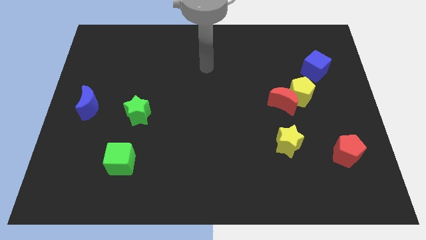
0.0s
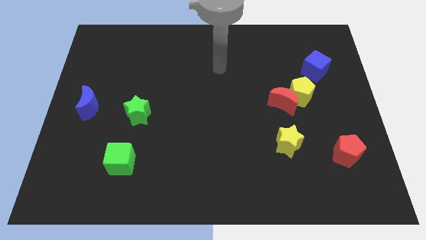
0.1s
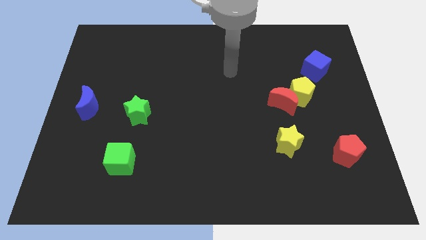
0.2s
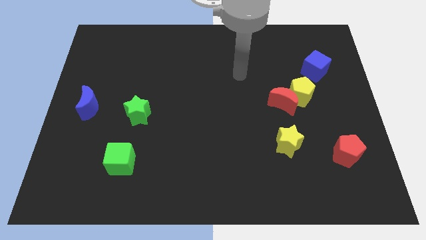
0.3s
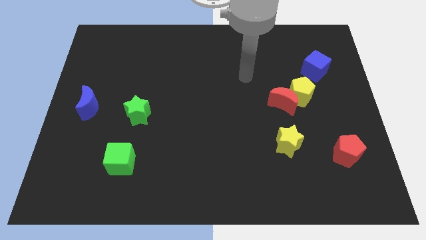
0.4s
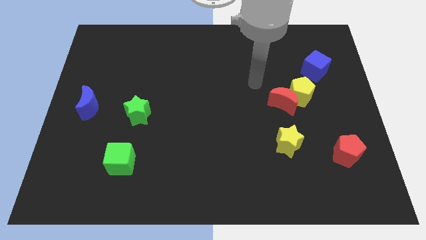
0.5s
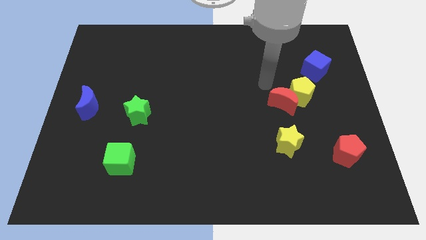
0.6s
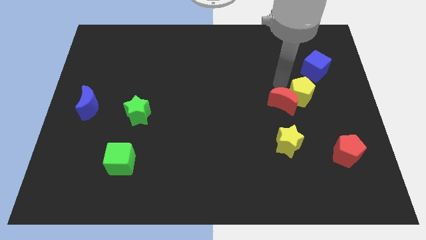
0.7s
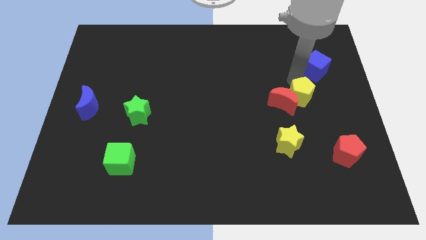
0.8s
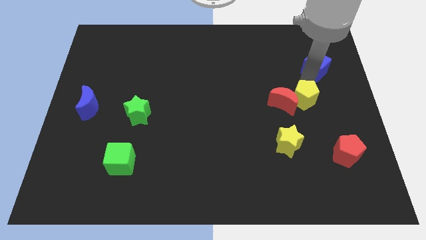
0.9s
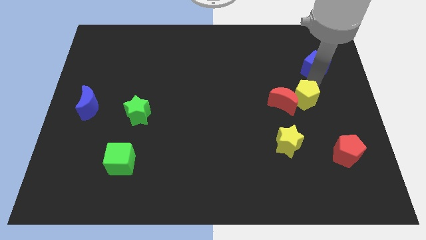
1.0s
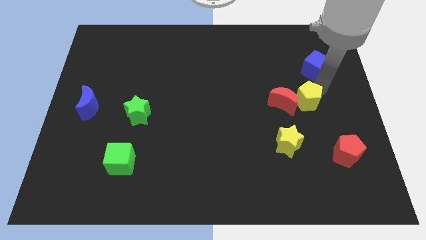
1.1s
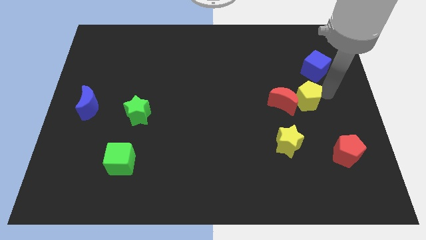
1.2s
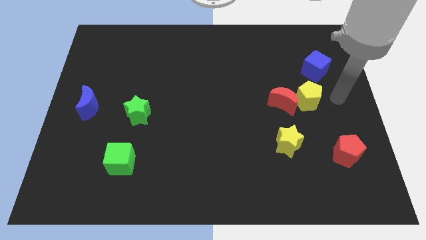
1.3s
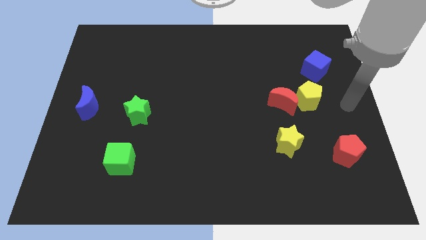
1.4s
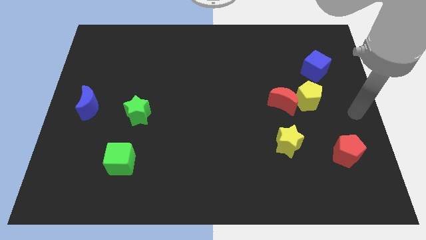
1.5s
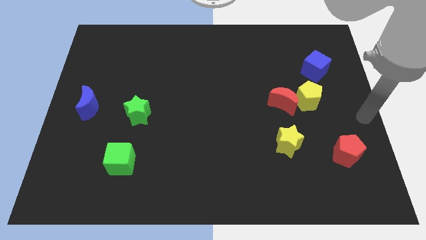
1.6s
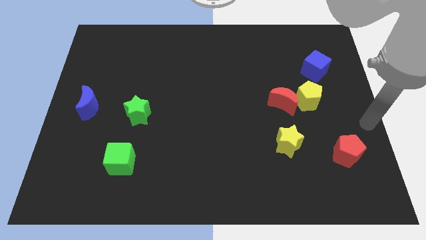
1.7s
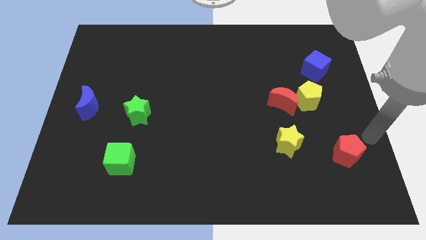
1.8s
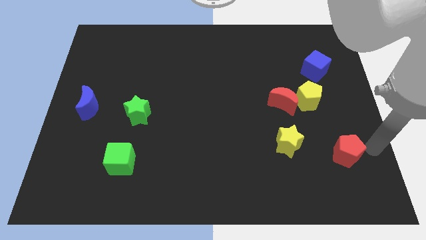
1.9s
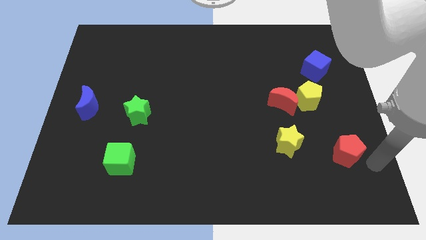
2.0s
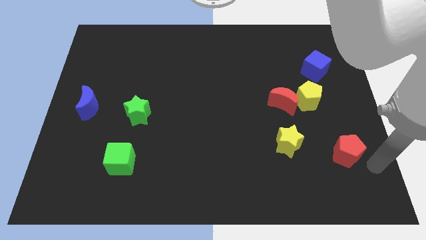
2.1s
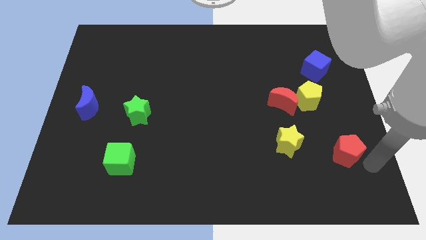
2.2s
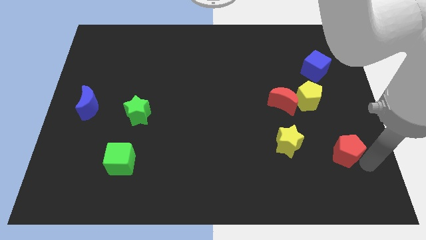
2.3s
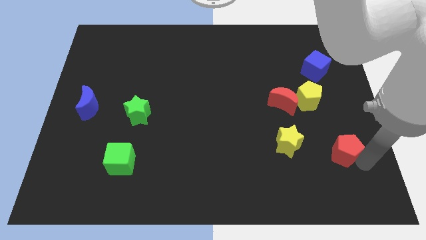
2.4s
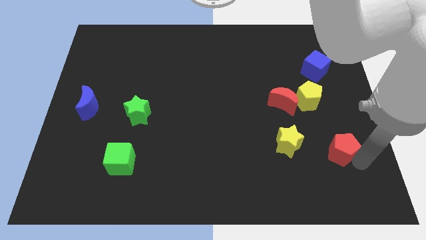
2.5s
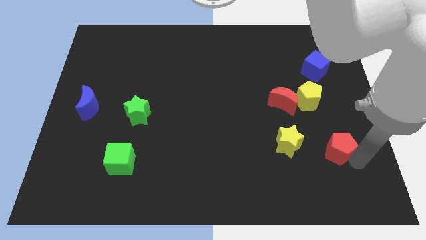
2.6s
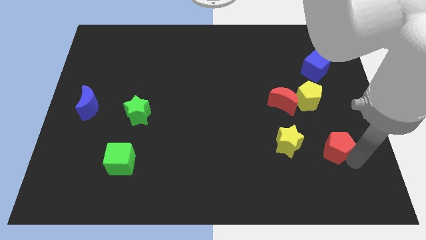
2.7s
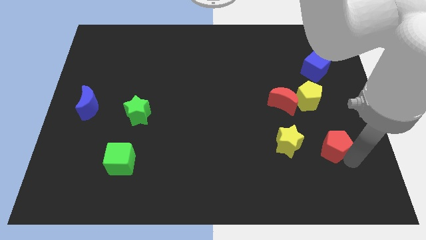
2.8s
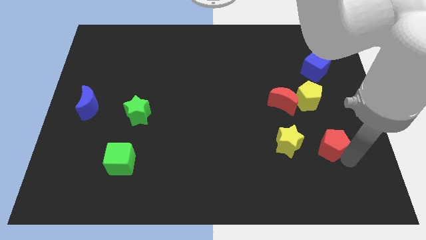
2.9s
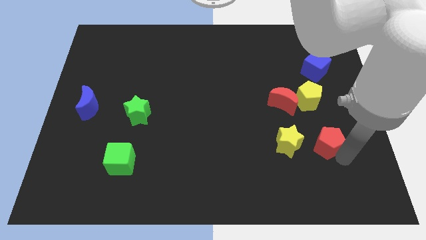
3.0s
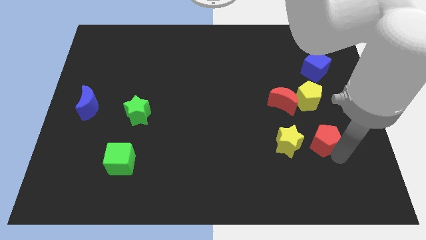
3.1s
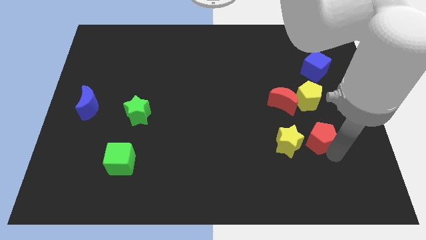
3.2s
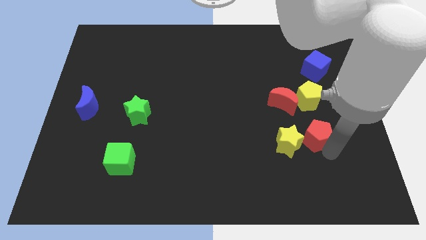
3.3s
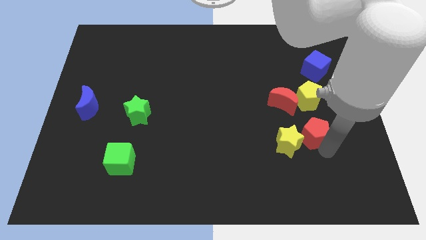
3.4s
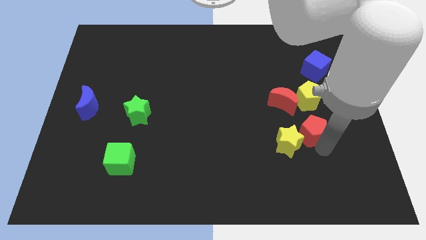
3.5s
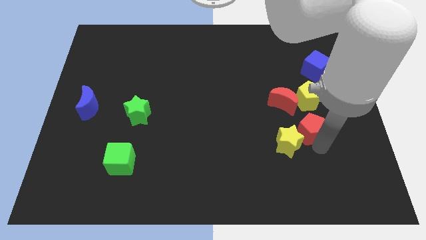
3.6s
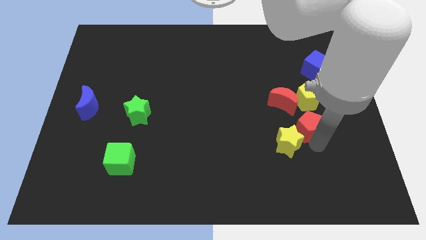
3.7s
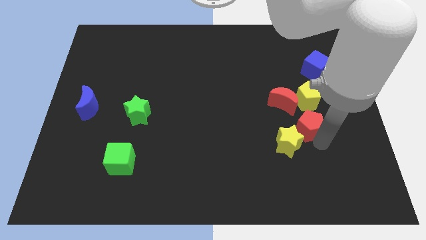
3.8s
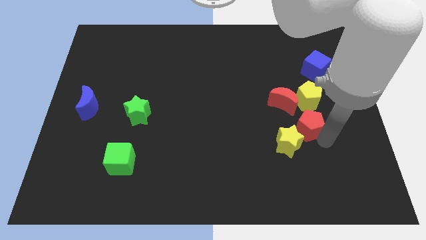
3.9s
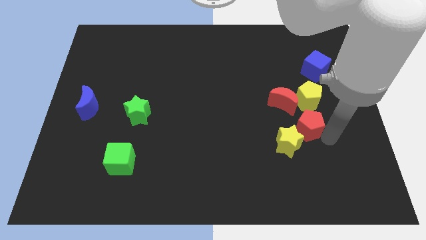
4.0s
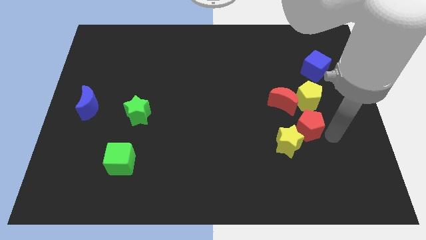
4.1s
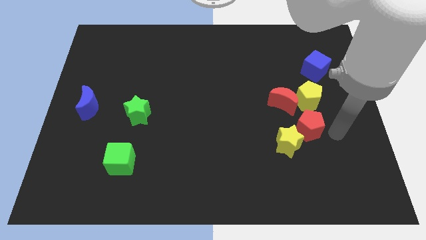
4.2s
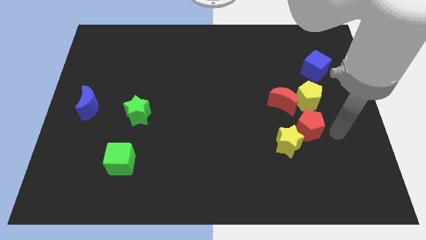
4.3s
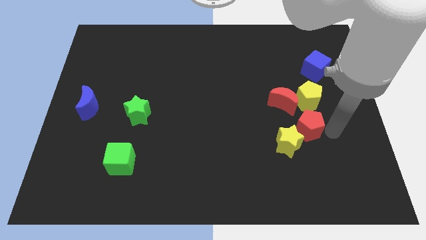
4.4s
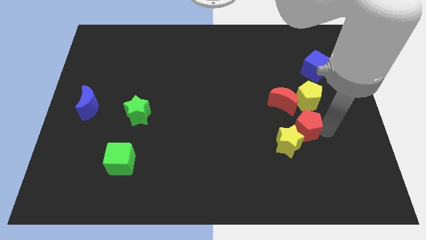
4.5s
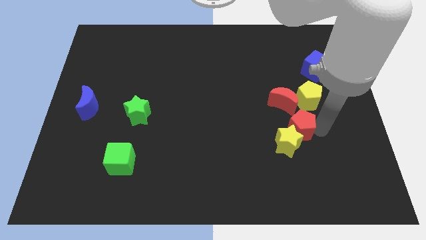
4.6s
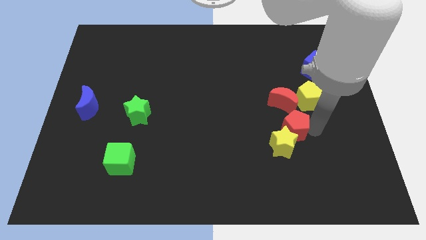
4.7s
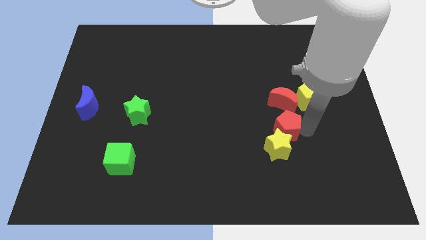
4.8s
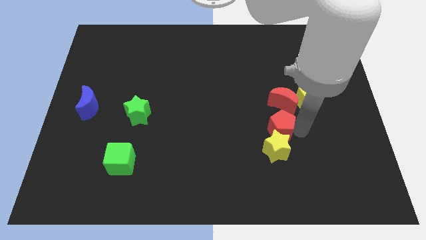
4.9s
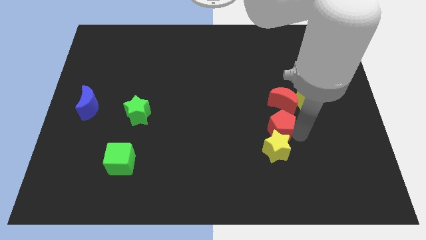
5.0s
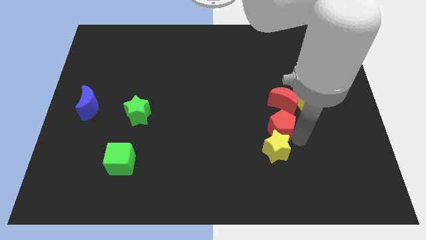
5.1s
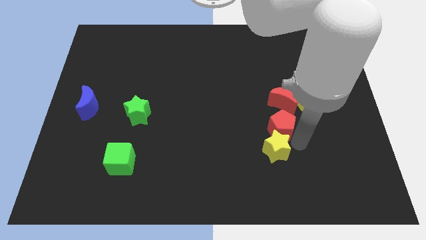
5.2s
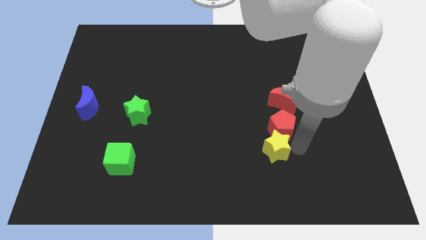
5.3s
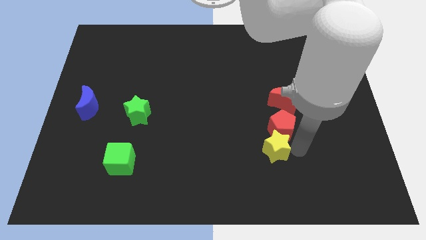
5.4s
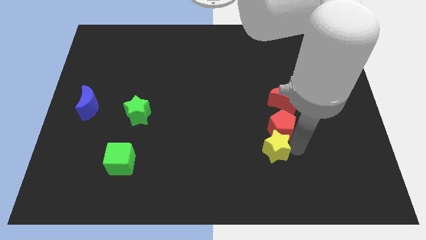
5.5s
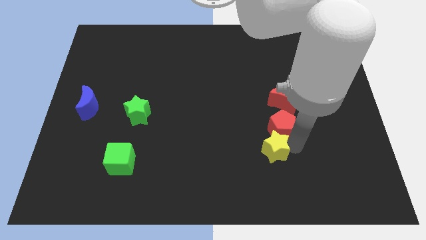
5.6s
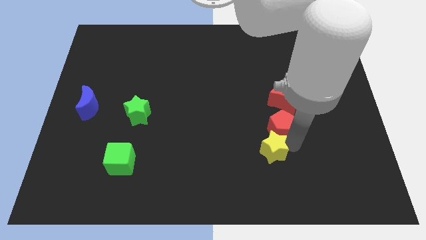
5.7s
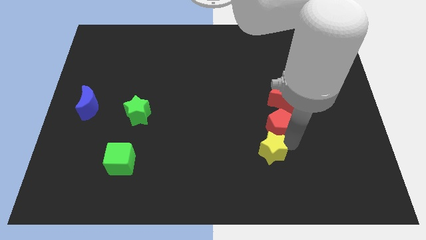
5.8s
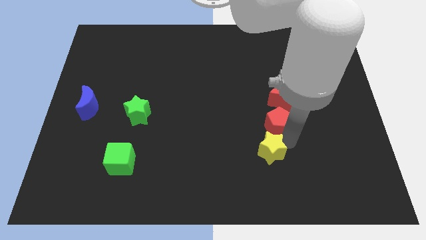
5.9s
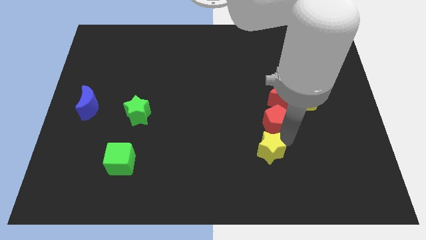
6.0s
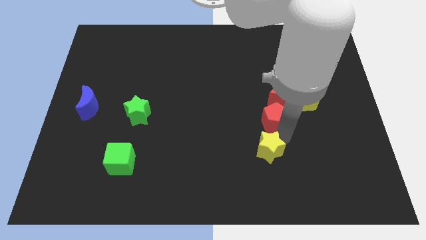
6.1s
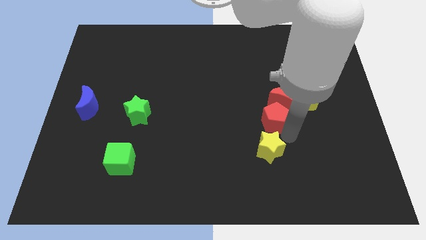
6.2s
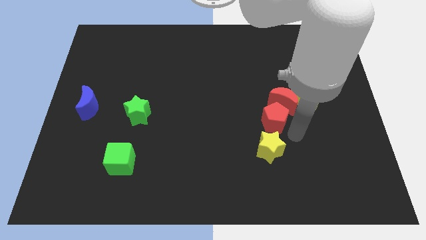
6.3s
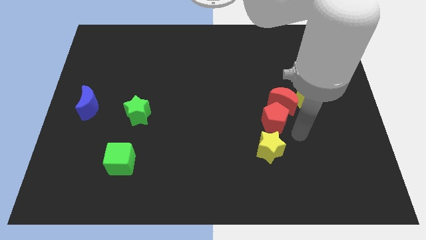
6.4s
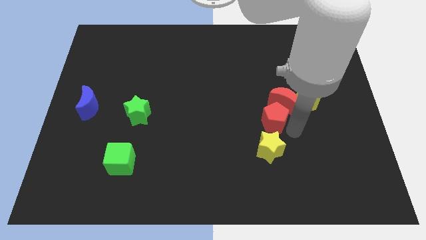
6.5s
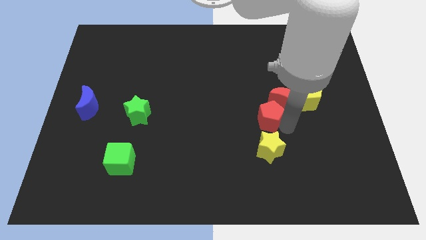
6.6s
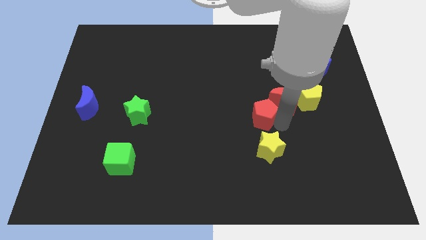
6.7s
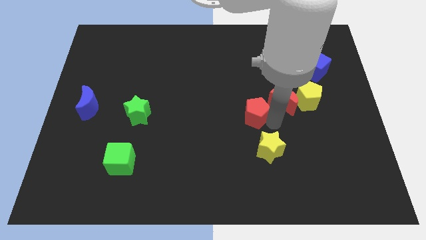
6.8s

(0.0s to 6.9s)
push the red pentagon to the left of the yellow pentagon
